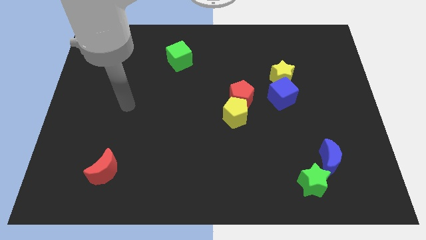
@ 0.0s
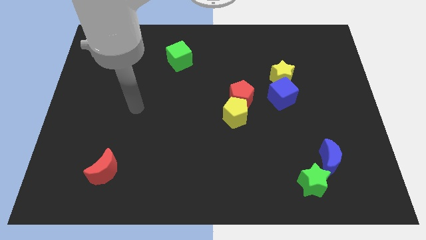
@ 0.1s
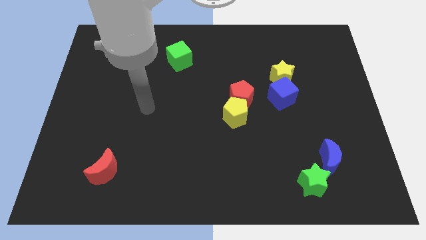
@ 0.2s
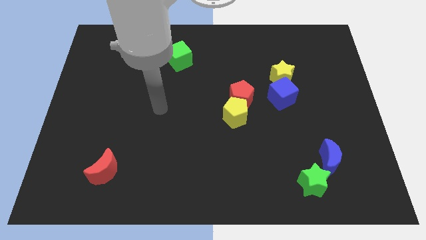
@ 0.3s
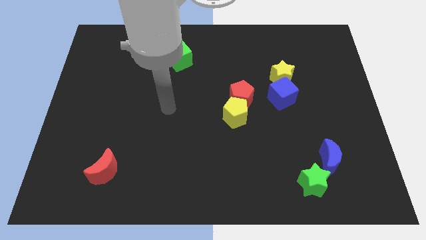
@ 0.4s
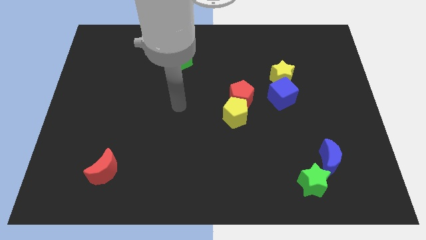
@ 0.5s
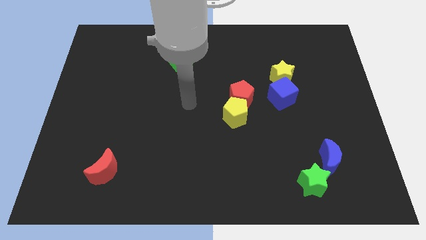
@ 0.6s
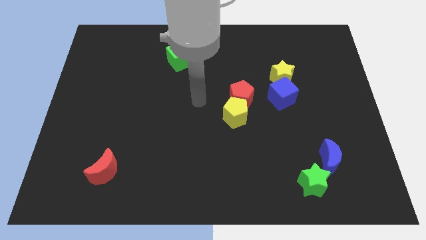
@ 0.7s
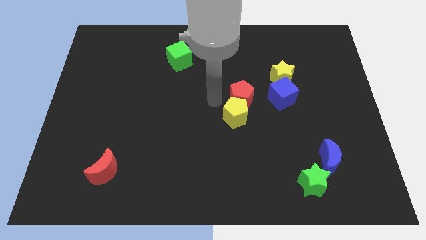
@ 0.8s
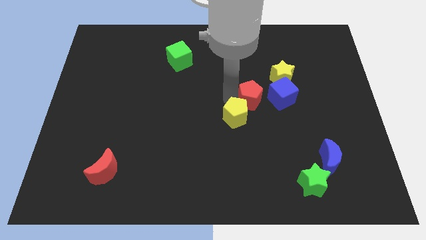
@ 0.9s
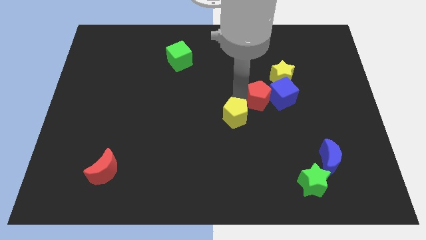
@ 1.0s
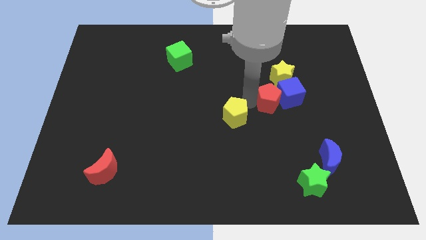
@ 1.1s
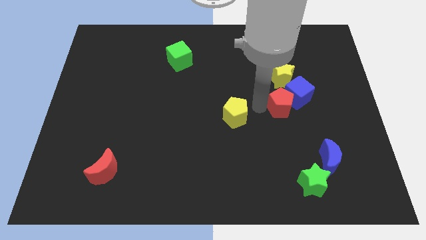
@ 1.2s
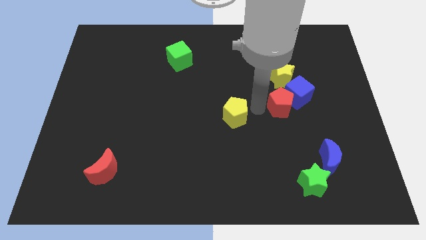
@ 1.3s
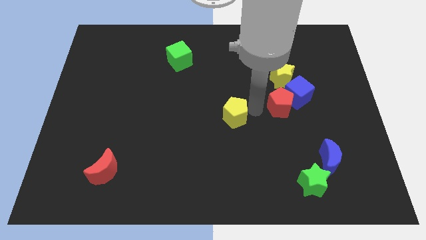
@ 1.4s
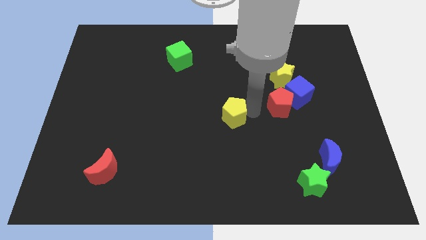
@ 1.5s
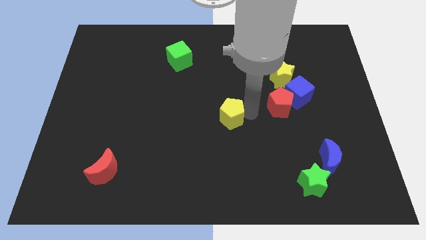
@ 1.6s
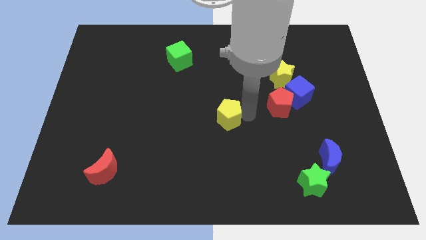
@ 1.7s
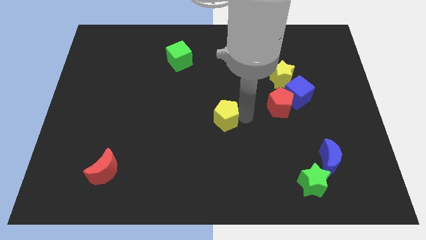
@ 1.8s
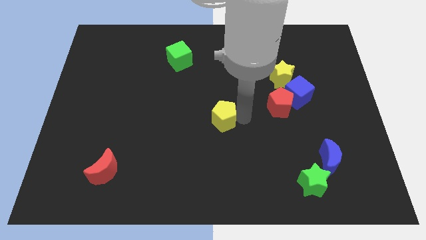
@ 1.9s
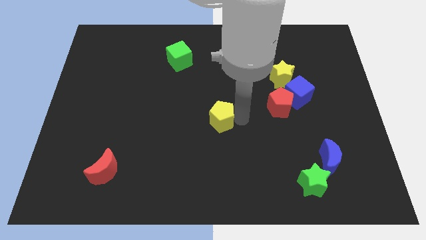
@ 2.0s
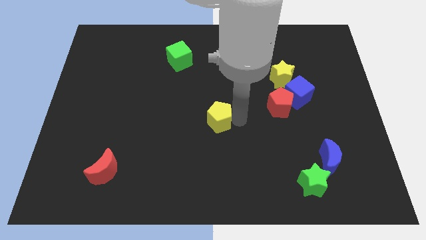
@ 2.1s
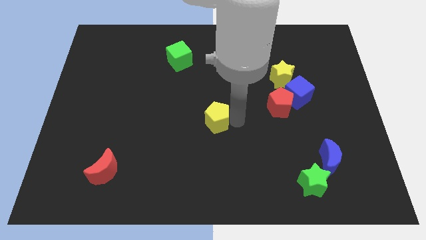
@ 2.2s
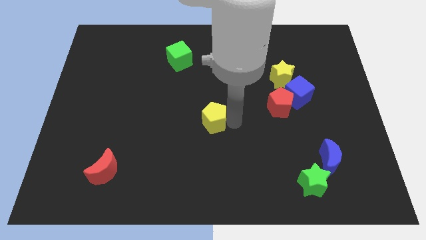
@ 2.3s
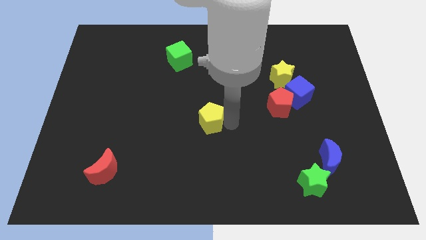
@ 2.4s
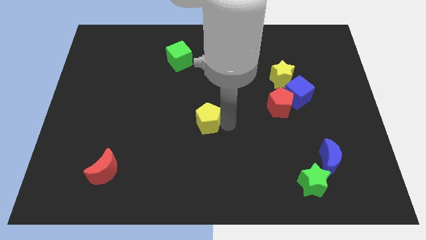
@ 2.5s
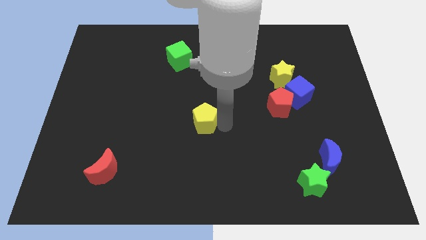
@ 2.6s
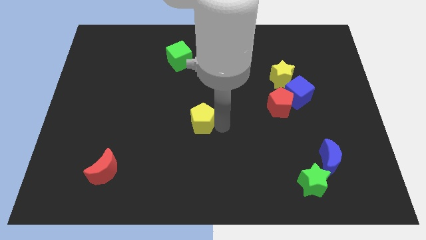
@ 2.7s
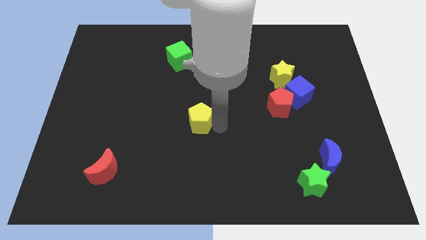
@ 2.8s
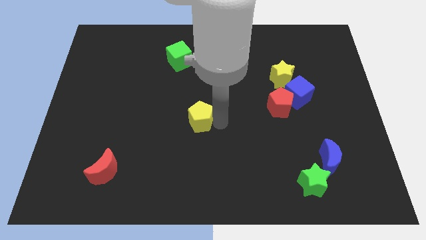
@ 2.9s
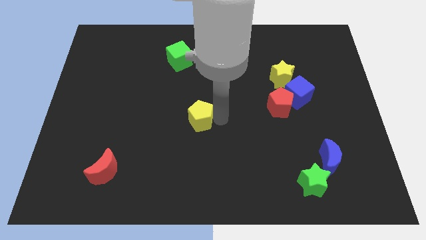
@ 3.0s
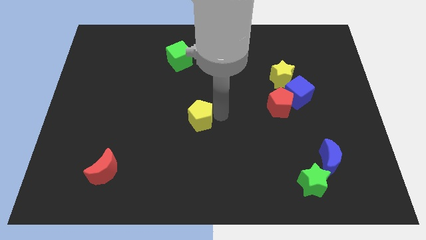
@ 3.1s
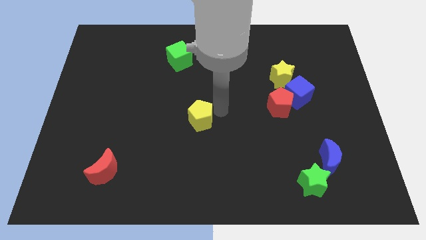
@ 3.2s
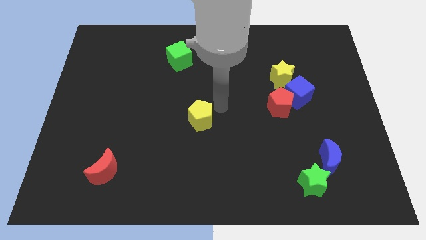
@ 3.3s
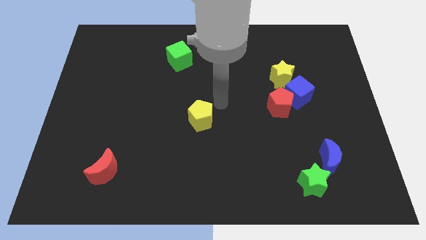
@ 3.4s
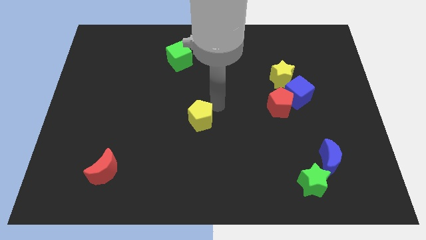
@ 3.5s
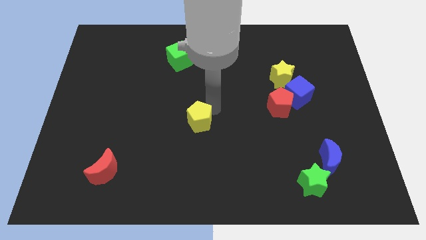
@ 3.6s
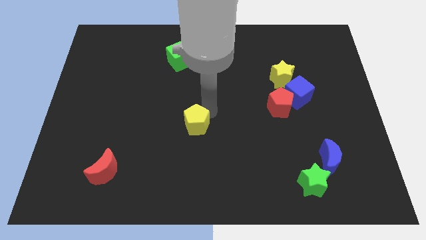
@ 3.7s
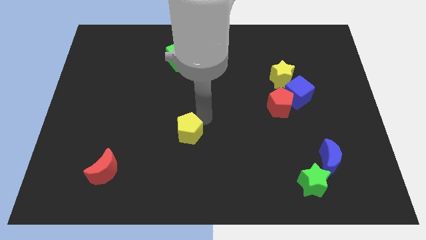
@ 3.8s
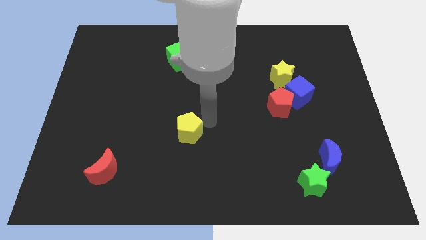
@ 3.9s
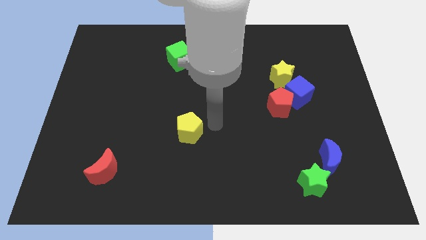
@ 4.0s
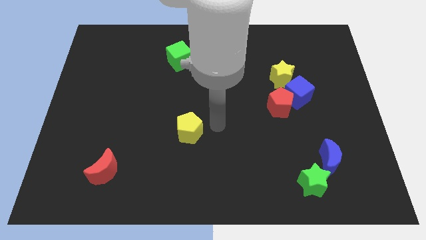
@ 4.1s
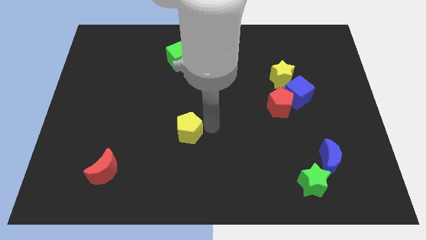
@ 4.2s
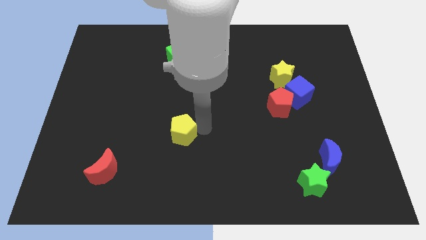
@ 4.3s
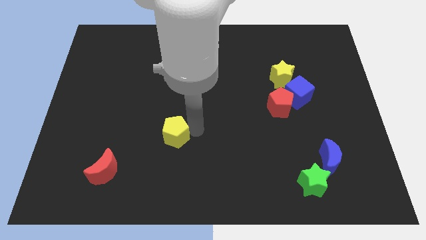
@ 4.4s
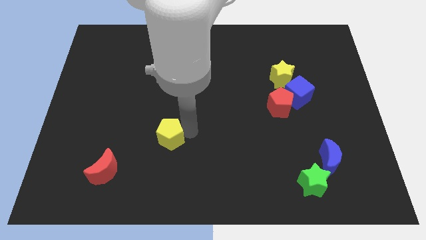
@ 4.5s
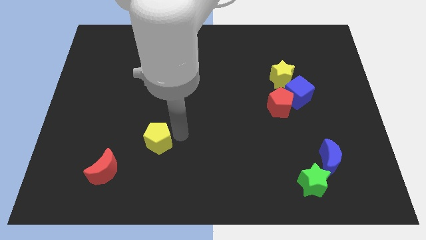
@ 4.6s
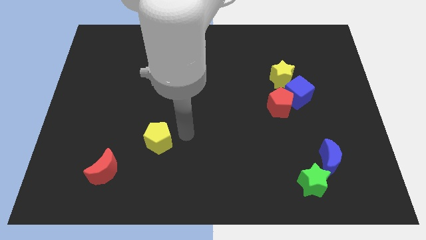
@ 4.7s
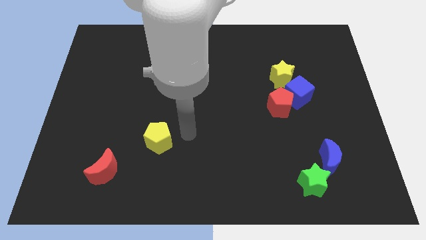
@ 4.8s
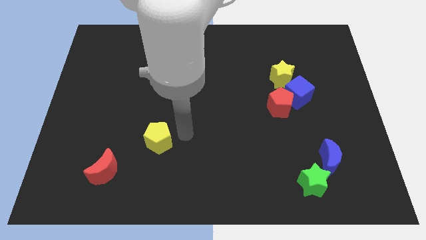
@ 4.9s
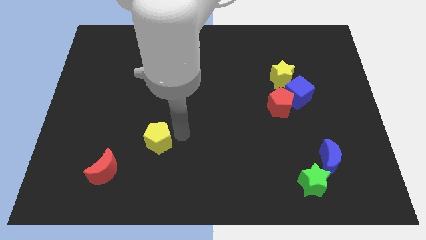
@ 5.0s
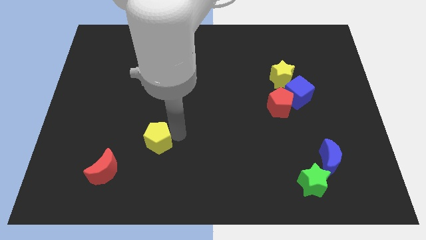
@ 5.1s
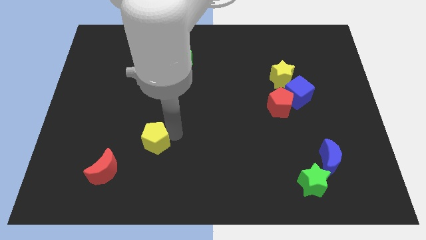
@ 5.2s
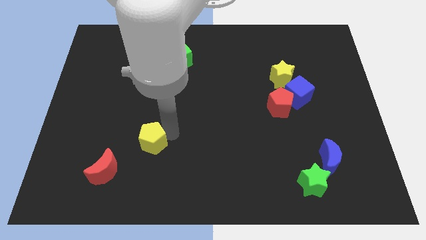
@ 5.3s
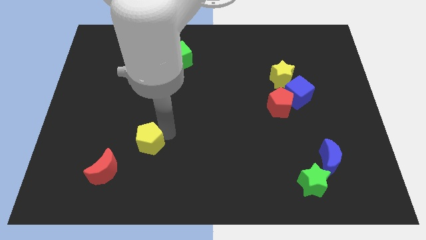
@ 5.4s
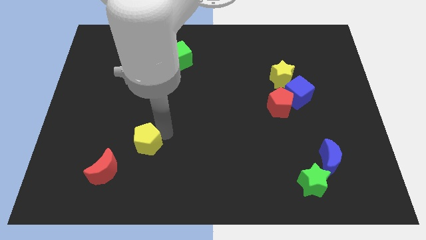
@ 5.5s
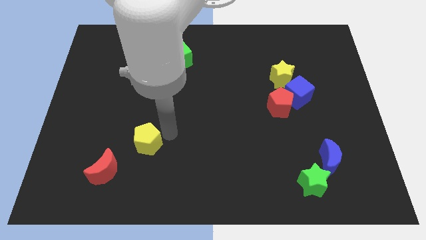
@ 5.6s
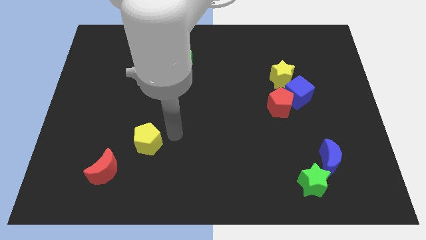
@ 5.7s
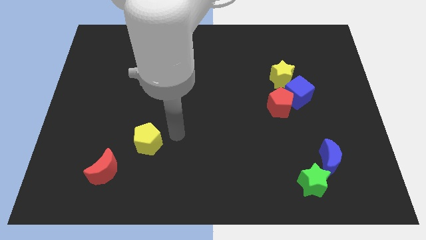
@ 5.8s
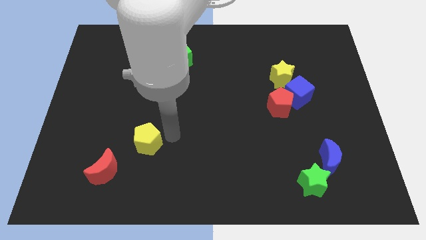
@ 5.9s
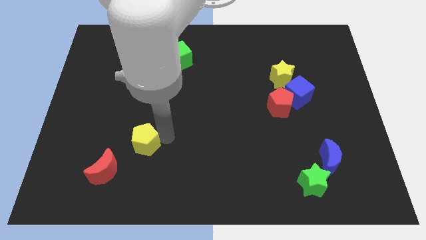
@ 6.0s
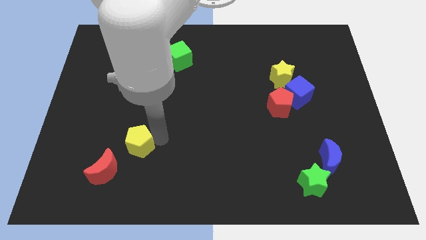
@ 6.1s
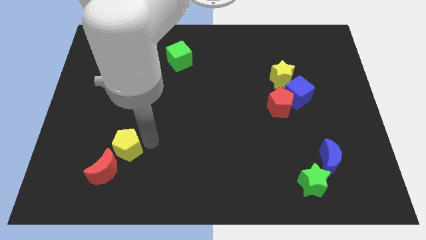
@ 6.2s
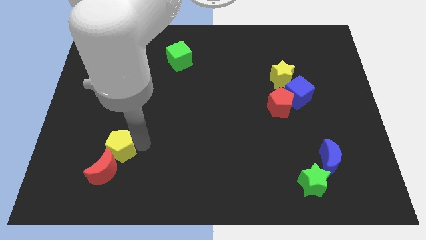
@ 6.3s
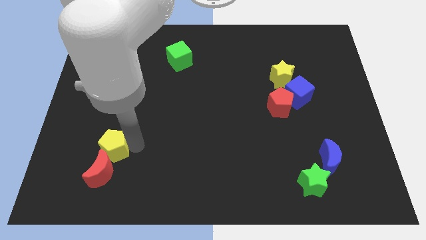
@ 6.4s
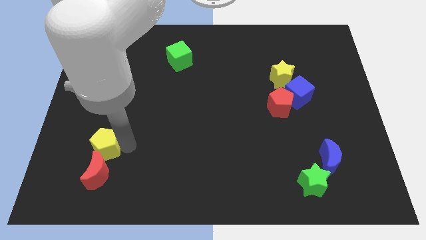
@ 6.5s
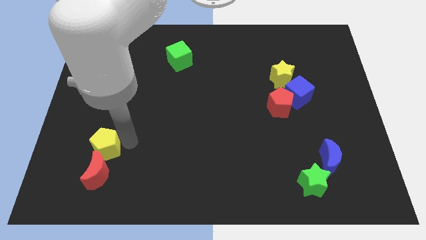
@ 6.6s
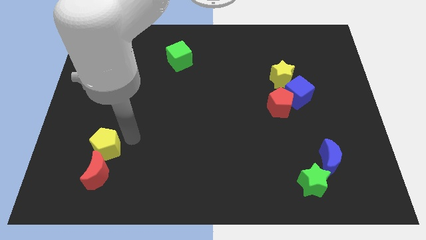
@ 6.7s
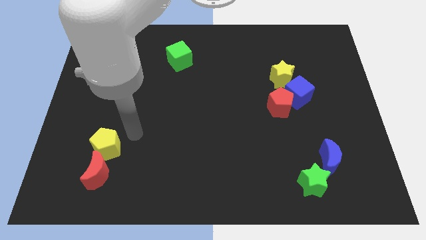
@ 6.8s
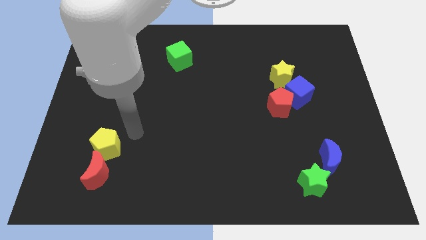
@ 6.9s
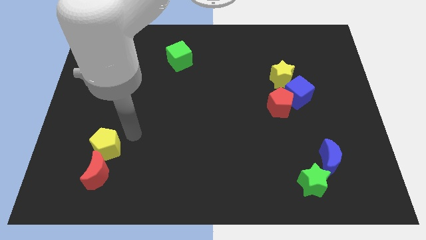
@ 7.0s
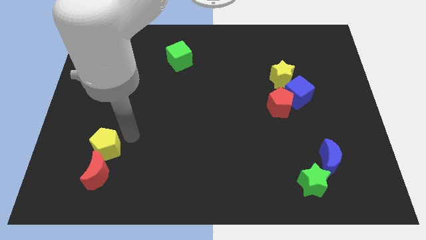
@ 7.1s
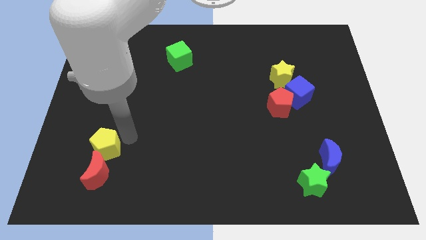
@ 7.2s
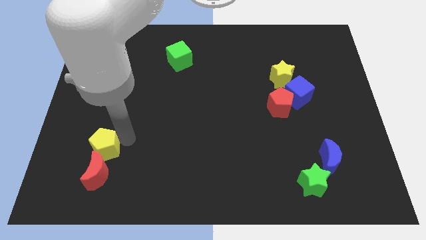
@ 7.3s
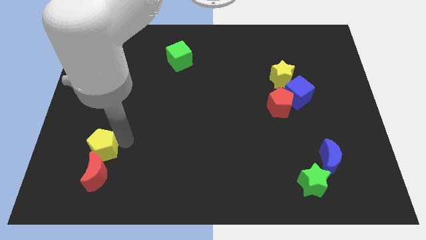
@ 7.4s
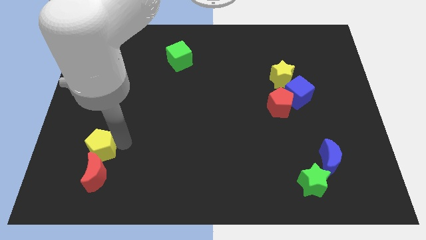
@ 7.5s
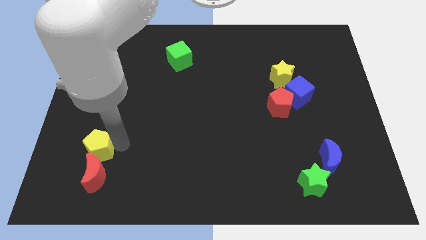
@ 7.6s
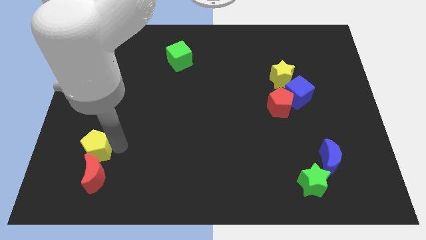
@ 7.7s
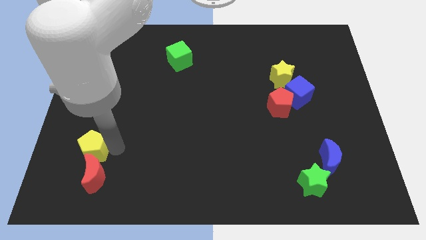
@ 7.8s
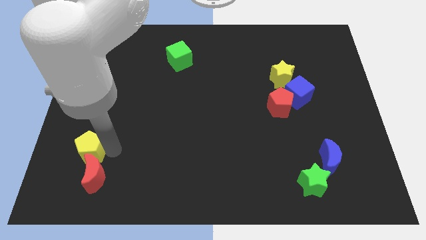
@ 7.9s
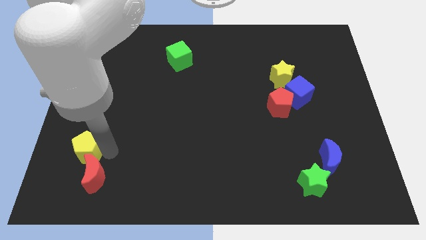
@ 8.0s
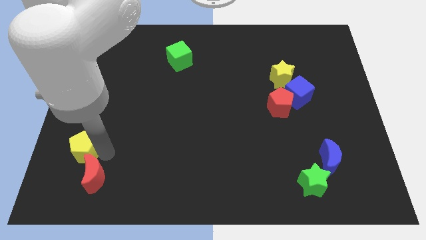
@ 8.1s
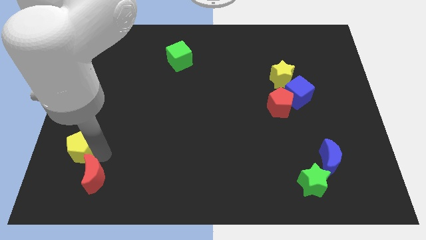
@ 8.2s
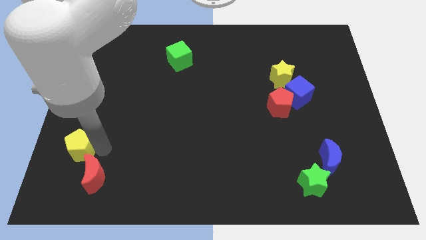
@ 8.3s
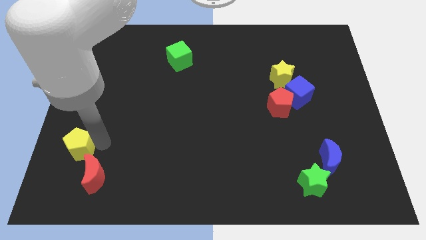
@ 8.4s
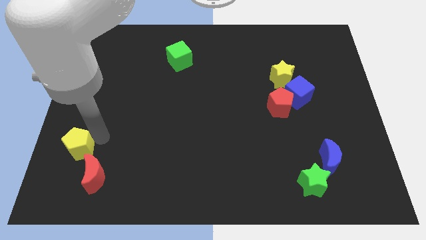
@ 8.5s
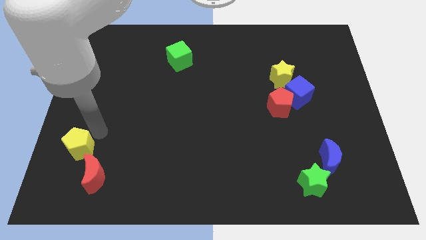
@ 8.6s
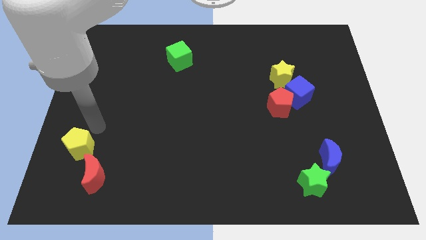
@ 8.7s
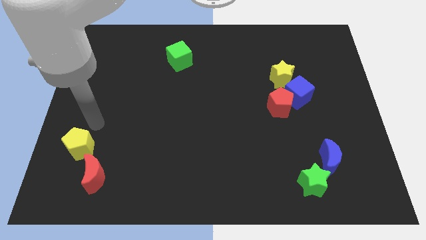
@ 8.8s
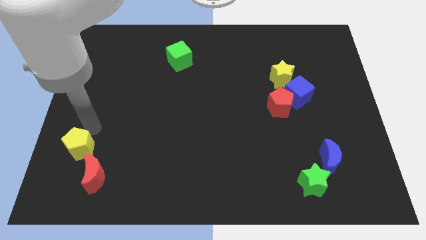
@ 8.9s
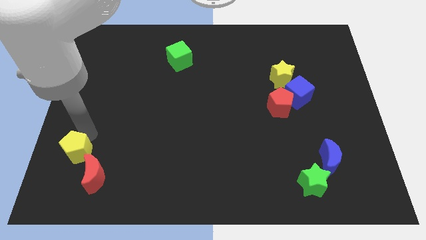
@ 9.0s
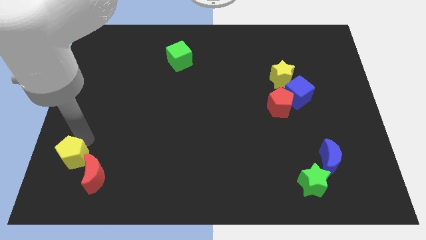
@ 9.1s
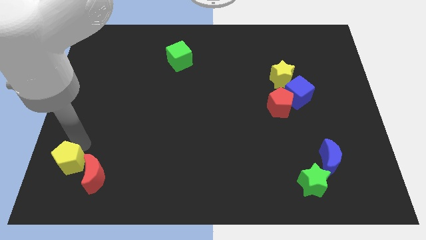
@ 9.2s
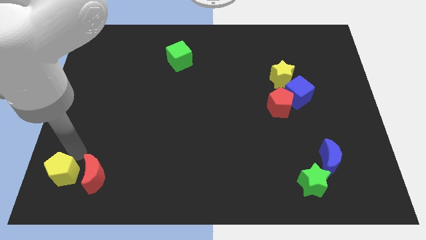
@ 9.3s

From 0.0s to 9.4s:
move the yellow pentagon to the bottom left corner
